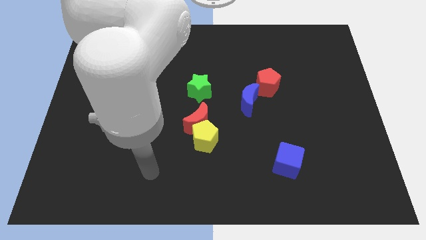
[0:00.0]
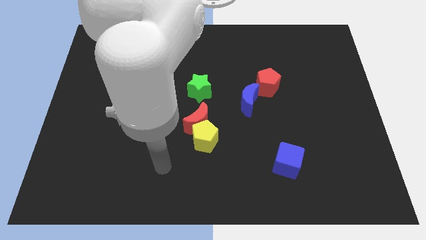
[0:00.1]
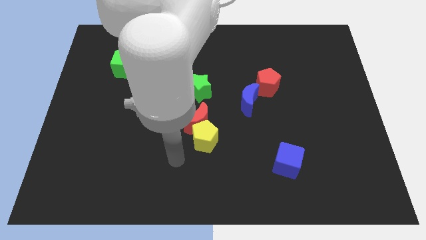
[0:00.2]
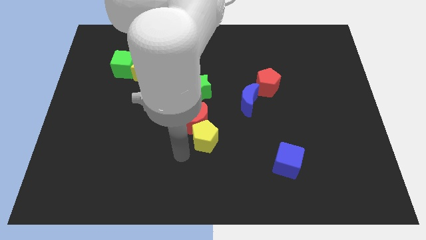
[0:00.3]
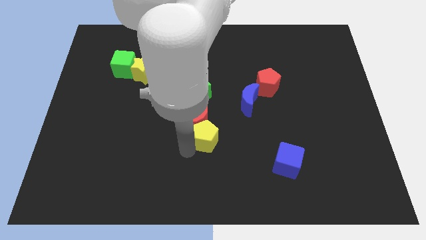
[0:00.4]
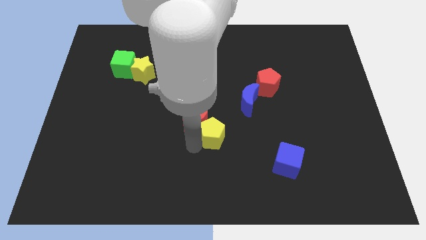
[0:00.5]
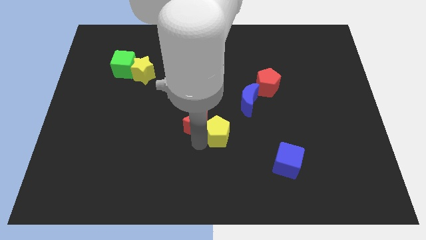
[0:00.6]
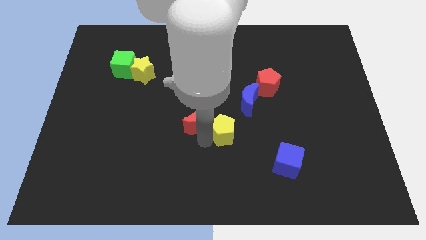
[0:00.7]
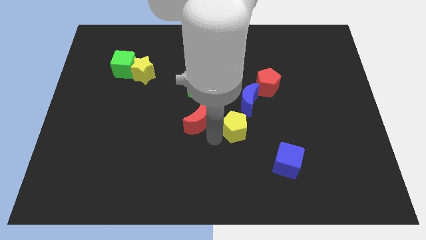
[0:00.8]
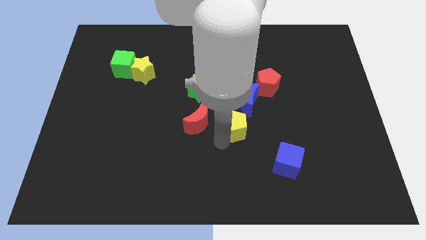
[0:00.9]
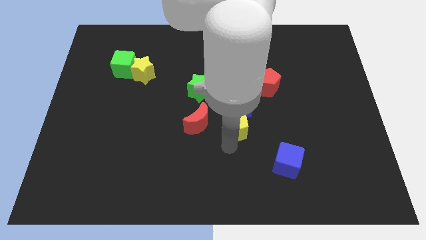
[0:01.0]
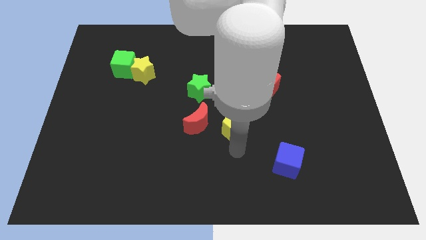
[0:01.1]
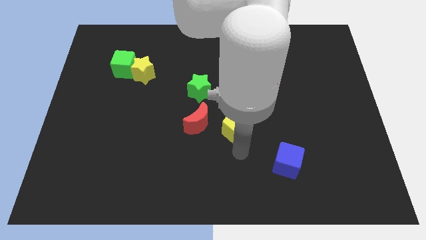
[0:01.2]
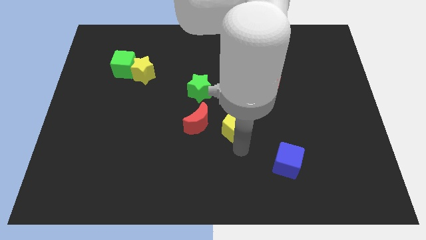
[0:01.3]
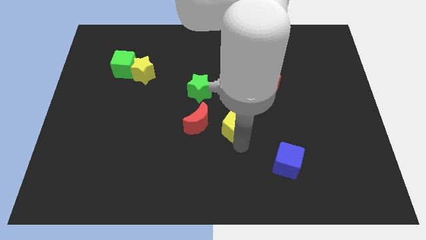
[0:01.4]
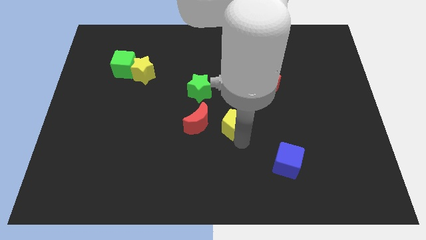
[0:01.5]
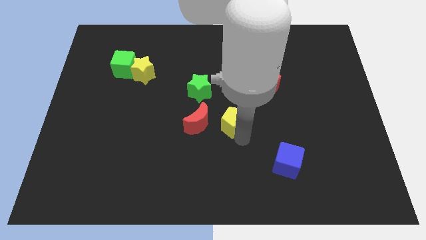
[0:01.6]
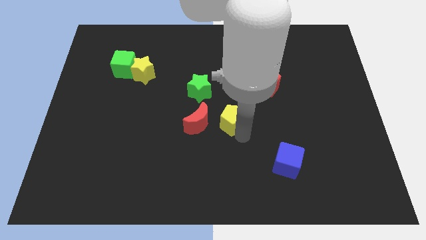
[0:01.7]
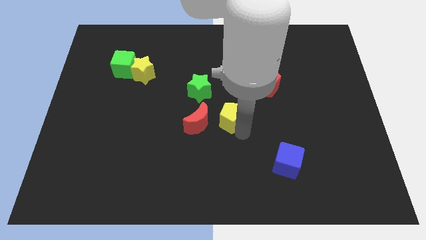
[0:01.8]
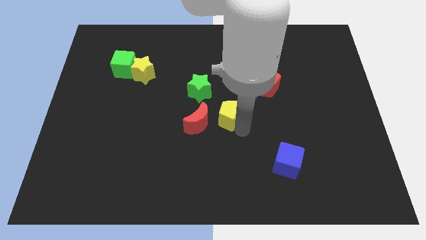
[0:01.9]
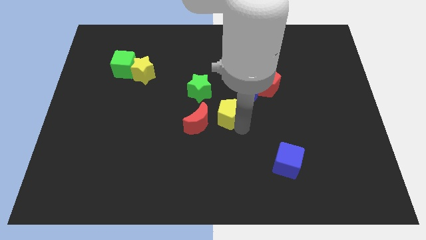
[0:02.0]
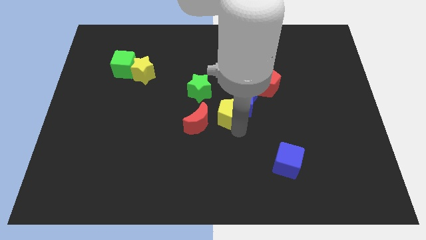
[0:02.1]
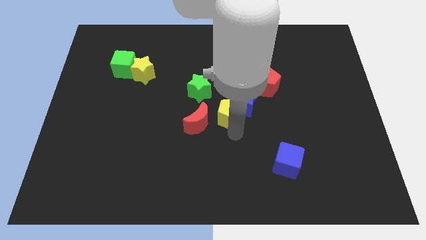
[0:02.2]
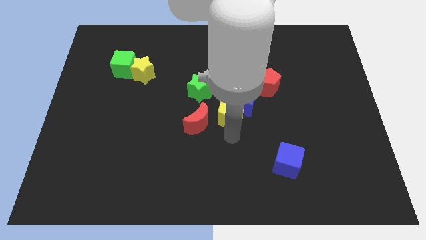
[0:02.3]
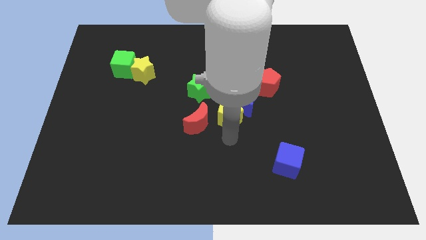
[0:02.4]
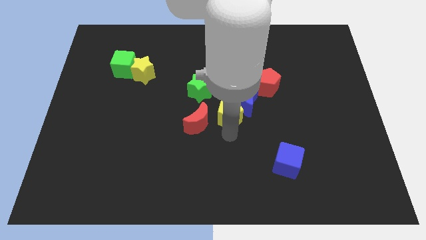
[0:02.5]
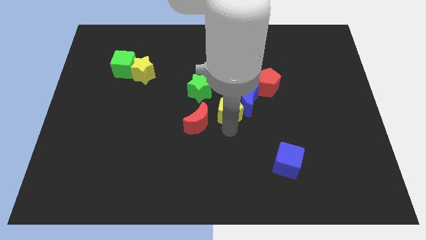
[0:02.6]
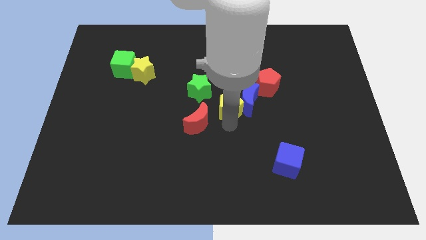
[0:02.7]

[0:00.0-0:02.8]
slightly push the yellow pentagon up

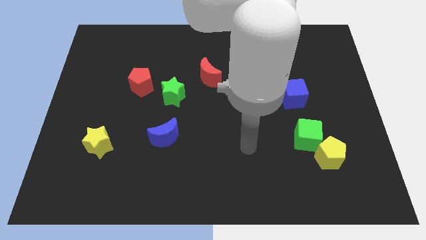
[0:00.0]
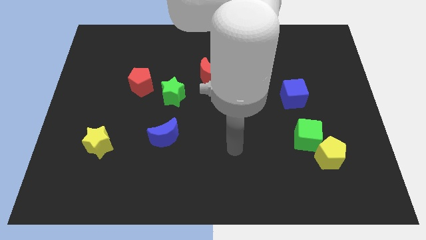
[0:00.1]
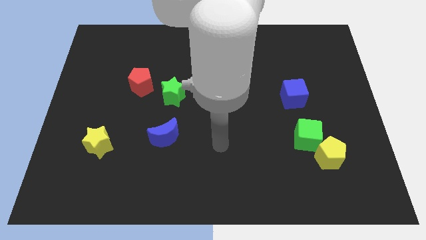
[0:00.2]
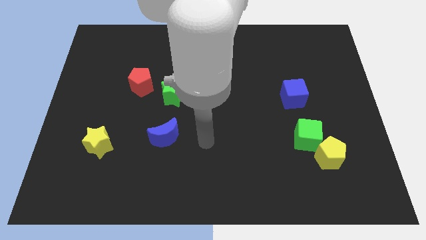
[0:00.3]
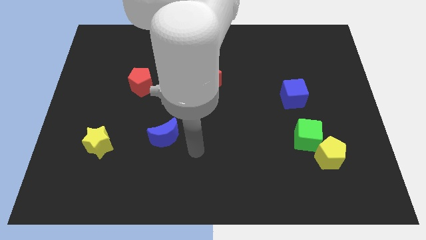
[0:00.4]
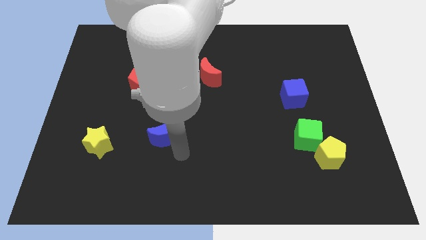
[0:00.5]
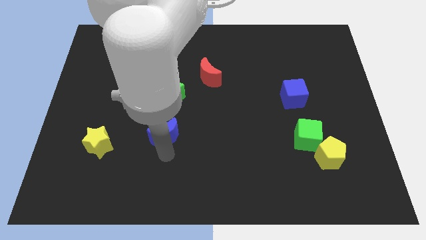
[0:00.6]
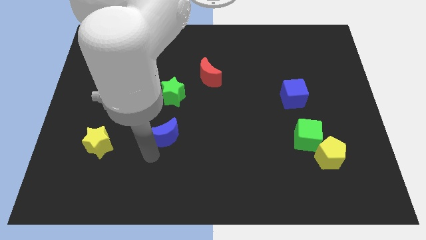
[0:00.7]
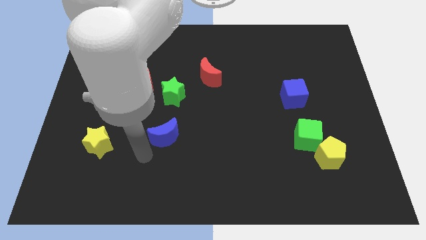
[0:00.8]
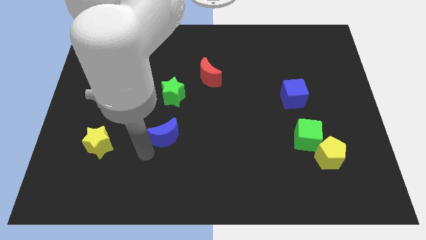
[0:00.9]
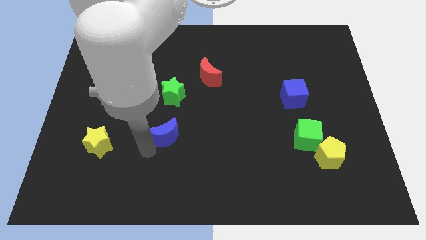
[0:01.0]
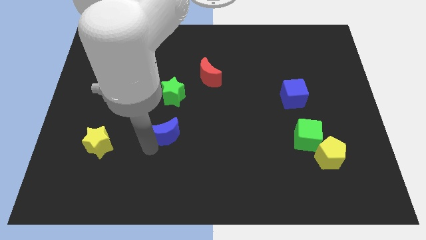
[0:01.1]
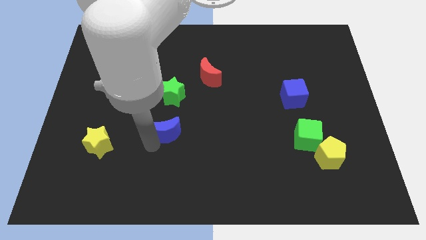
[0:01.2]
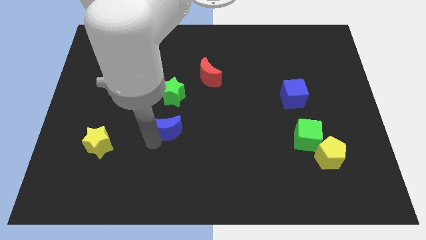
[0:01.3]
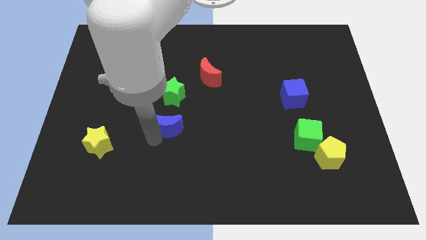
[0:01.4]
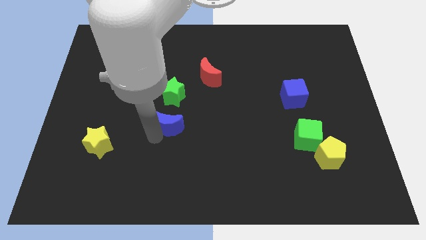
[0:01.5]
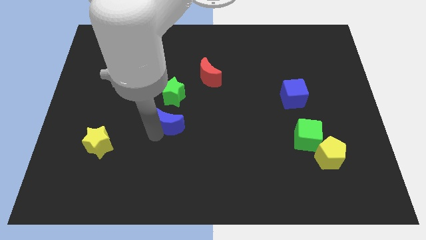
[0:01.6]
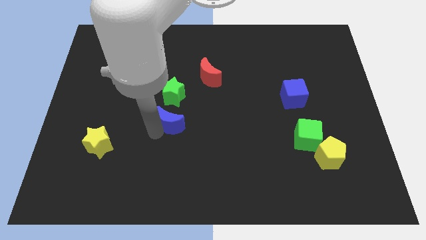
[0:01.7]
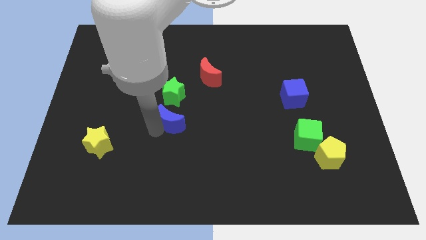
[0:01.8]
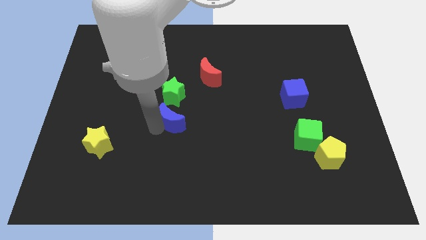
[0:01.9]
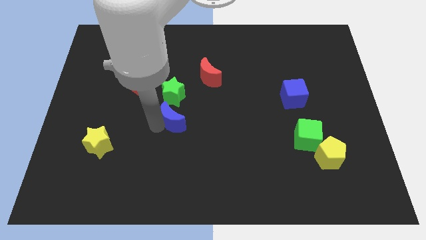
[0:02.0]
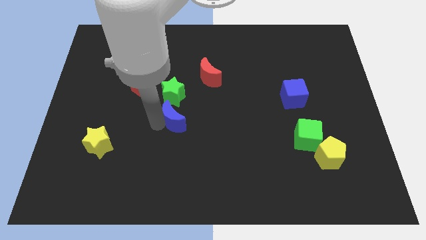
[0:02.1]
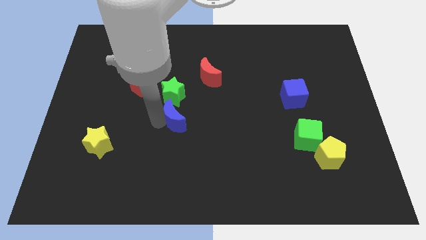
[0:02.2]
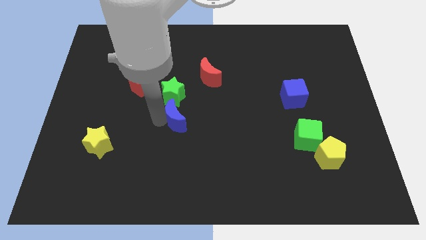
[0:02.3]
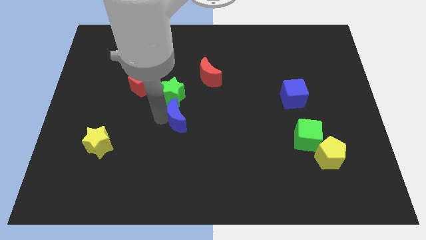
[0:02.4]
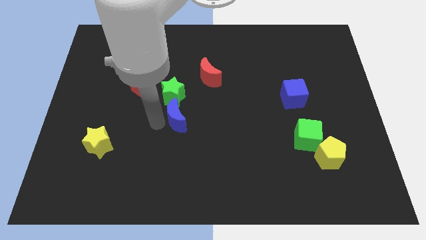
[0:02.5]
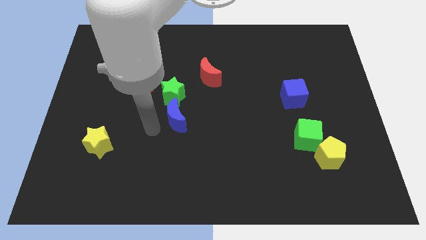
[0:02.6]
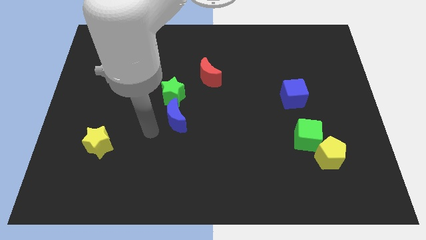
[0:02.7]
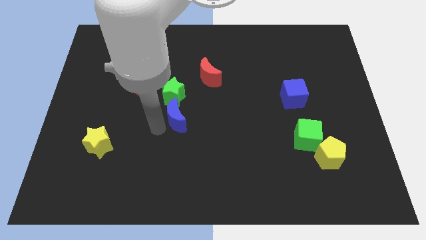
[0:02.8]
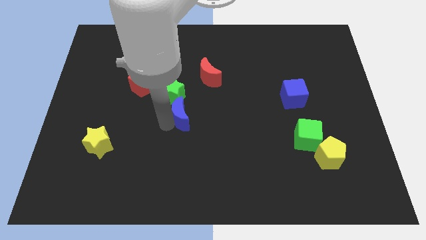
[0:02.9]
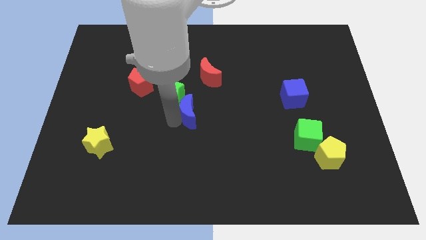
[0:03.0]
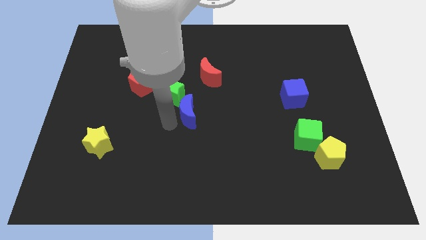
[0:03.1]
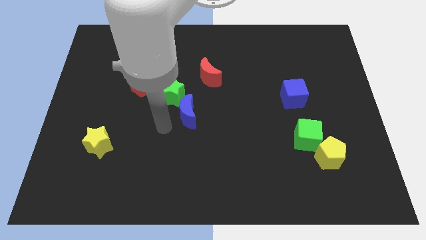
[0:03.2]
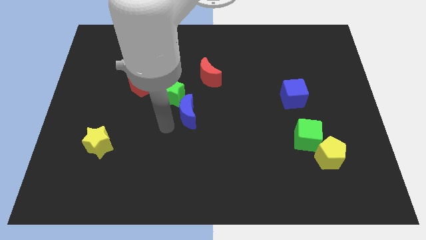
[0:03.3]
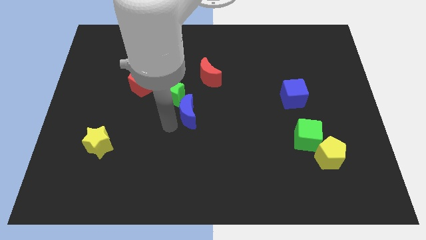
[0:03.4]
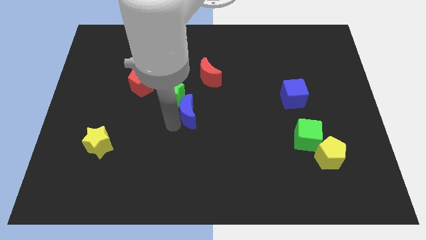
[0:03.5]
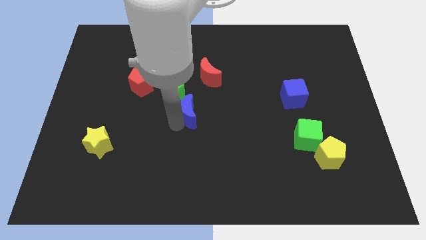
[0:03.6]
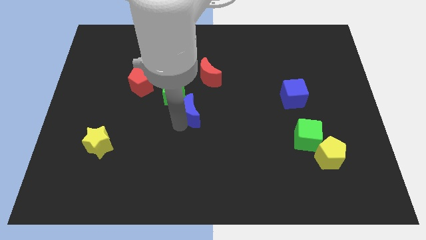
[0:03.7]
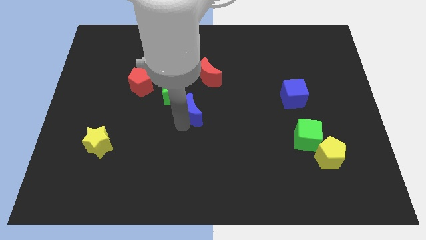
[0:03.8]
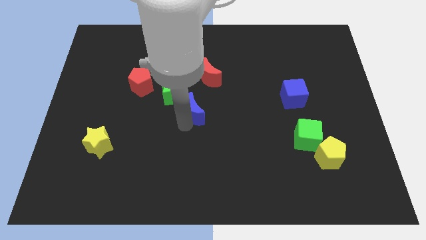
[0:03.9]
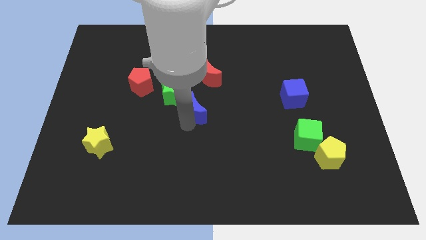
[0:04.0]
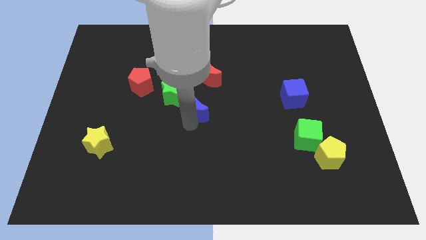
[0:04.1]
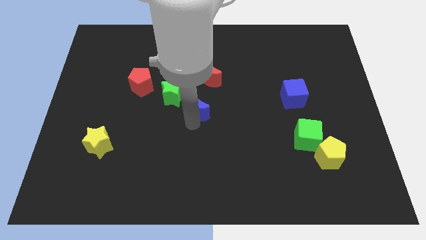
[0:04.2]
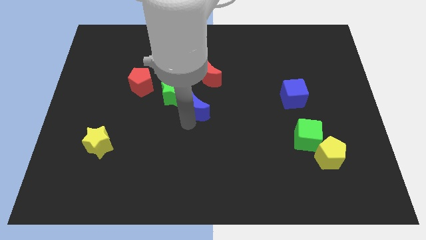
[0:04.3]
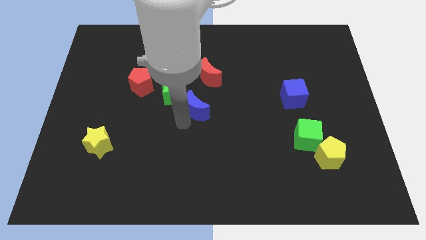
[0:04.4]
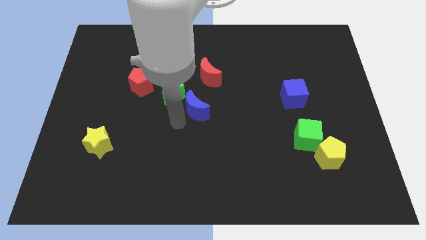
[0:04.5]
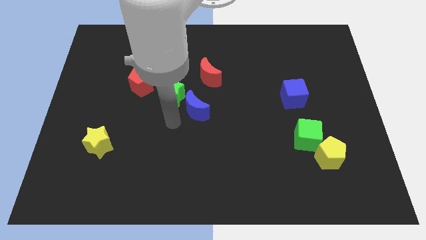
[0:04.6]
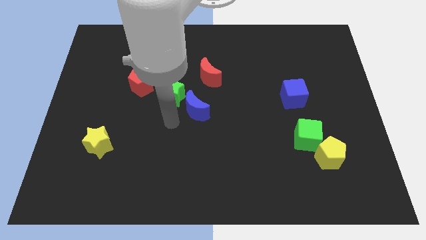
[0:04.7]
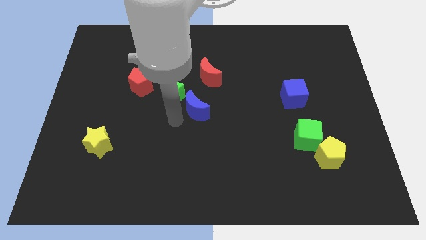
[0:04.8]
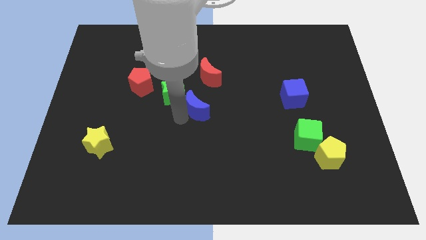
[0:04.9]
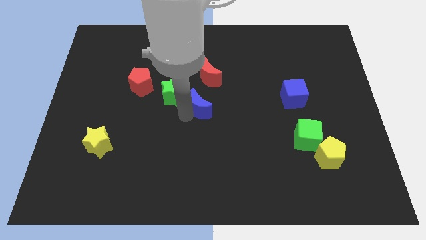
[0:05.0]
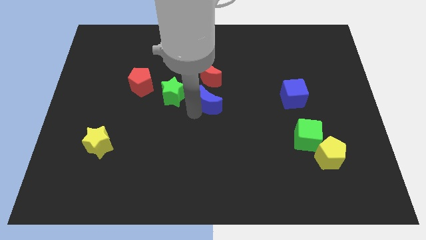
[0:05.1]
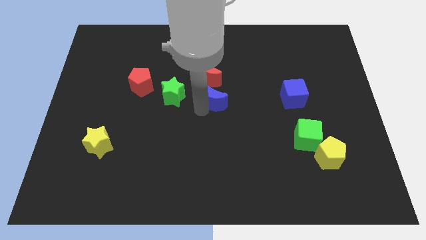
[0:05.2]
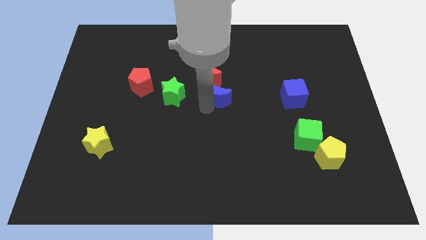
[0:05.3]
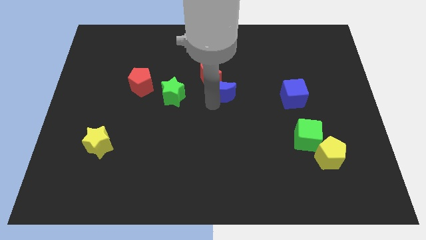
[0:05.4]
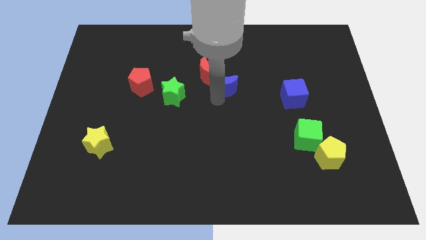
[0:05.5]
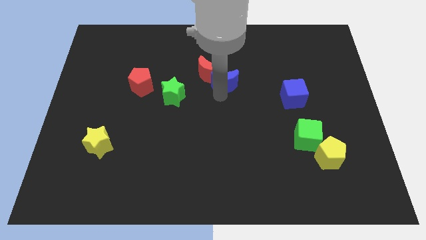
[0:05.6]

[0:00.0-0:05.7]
slide the blue moon upwards and then to the right
